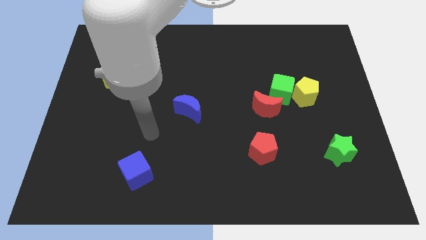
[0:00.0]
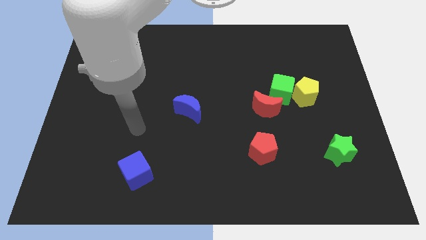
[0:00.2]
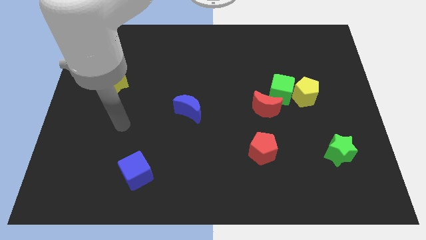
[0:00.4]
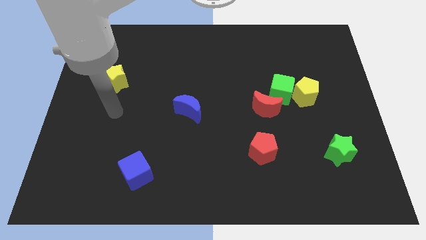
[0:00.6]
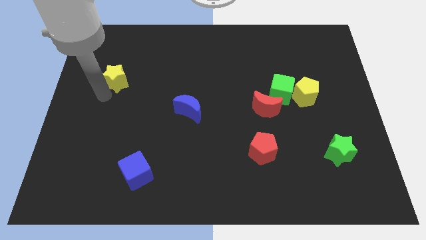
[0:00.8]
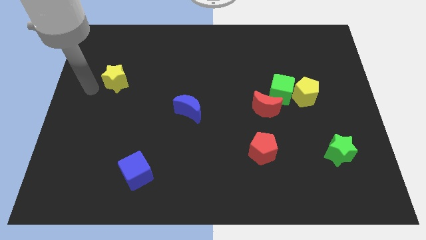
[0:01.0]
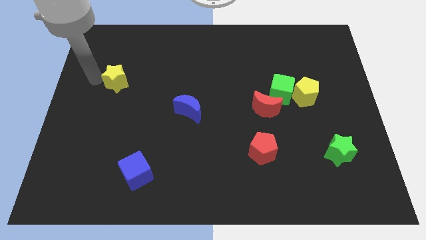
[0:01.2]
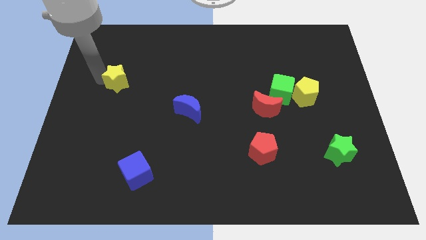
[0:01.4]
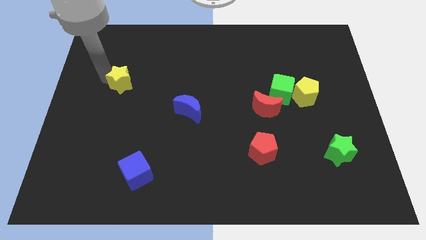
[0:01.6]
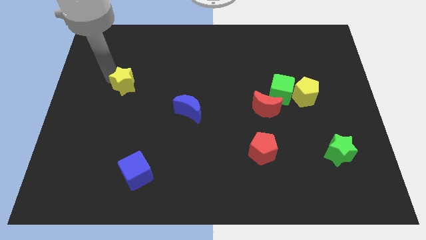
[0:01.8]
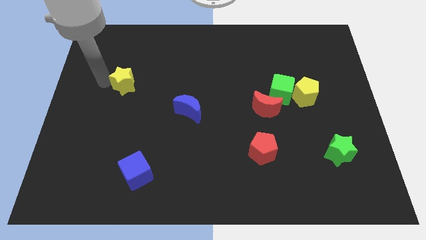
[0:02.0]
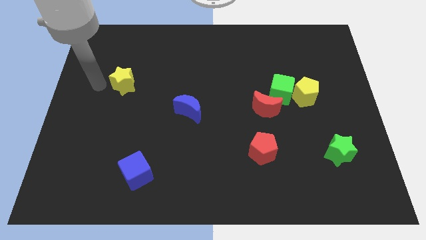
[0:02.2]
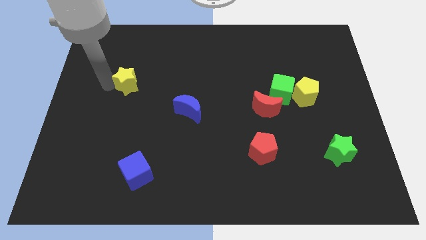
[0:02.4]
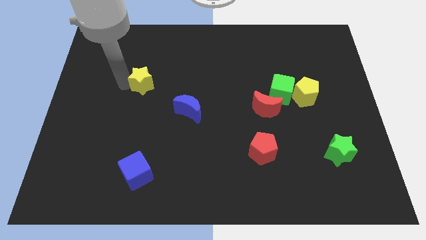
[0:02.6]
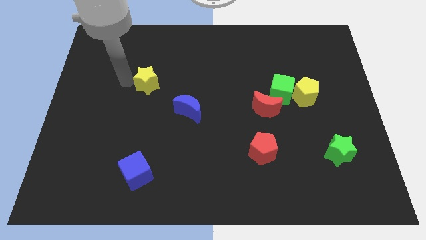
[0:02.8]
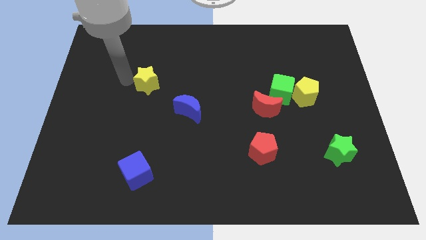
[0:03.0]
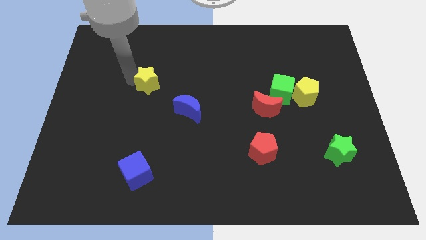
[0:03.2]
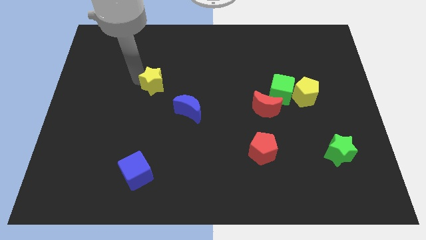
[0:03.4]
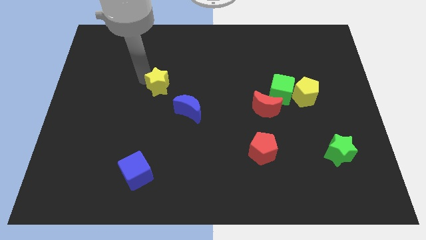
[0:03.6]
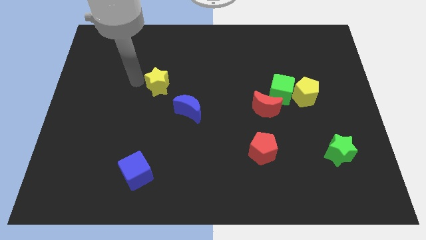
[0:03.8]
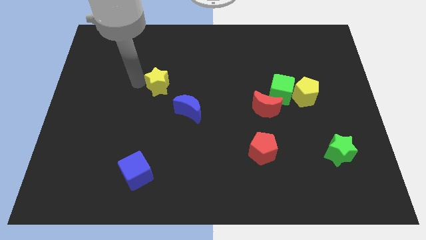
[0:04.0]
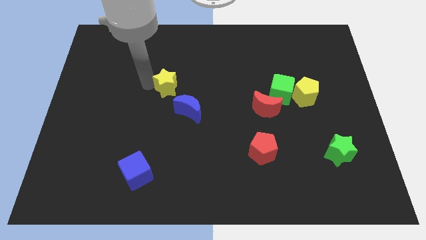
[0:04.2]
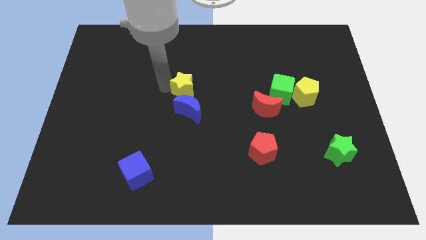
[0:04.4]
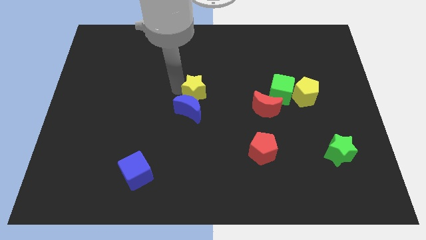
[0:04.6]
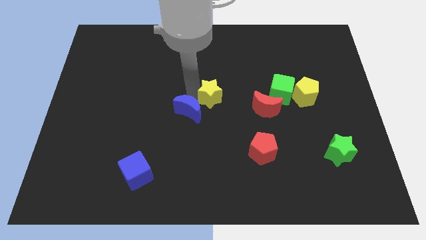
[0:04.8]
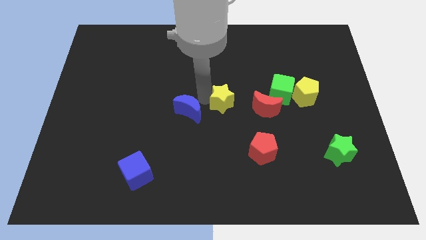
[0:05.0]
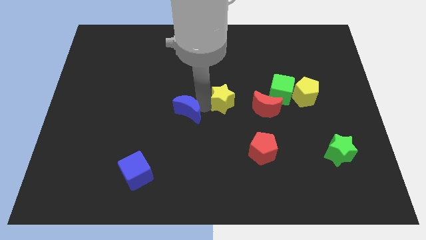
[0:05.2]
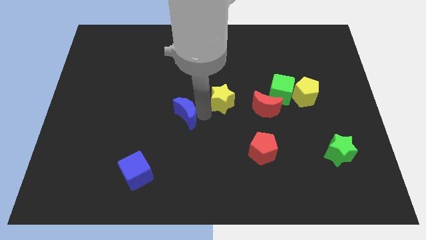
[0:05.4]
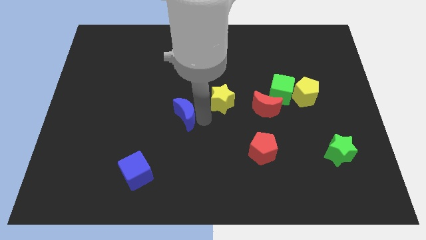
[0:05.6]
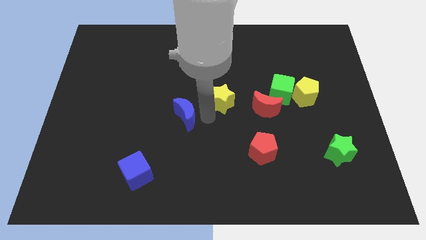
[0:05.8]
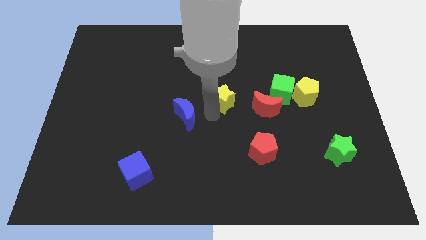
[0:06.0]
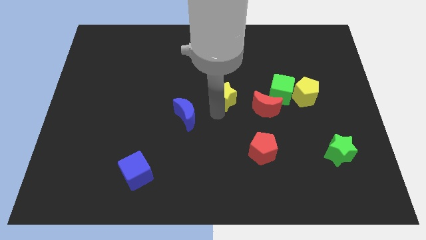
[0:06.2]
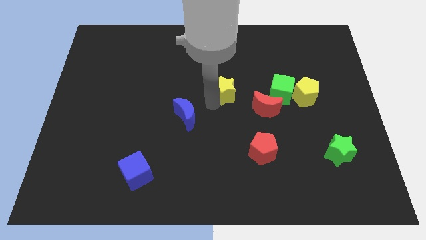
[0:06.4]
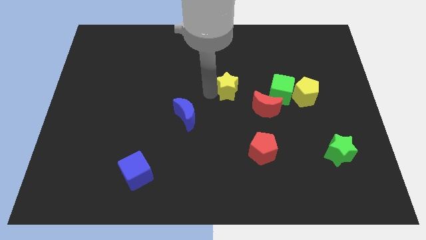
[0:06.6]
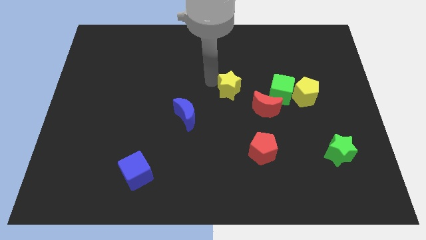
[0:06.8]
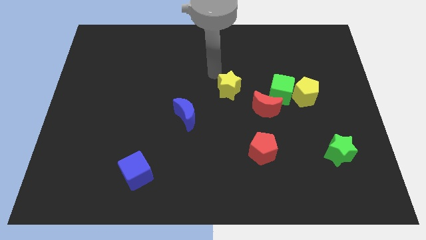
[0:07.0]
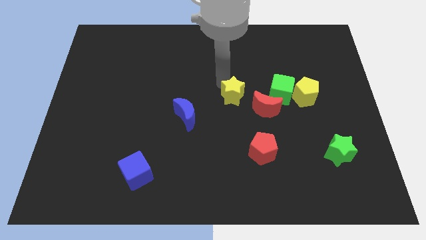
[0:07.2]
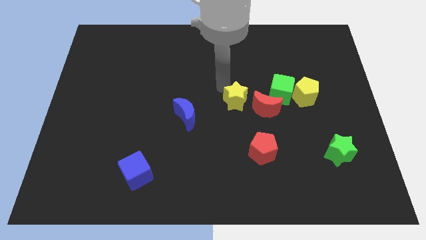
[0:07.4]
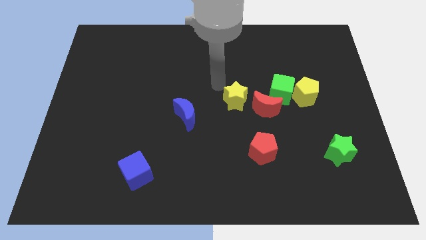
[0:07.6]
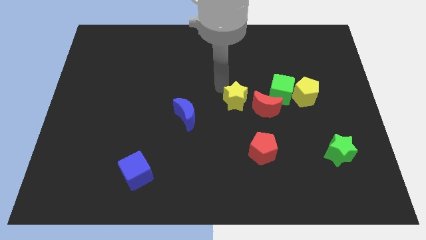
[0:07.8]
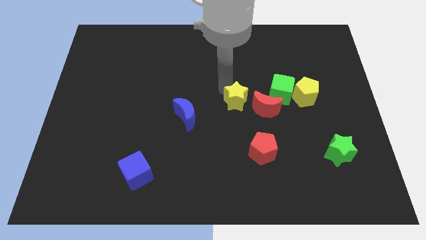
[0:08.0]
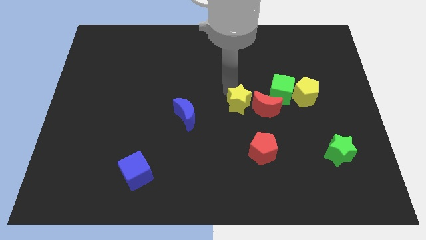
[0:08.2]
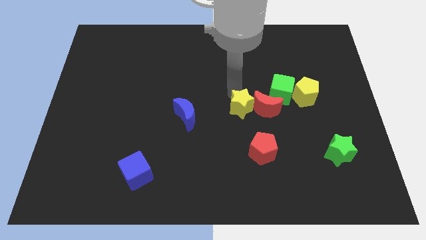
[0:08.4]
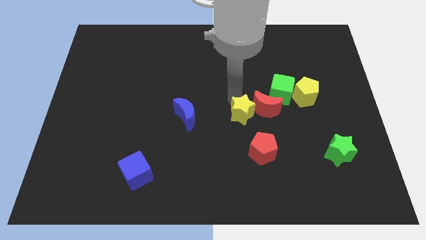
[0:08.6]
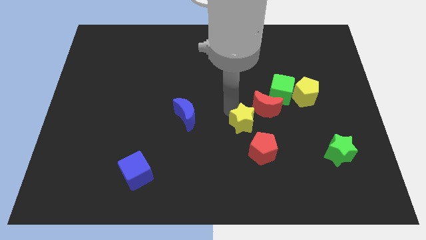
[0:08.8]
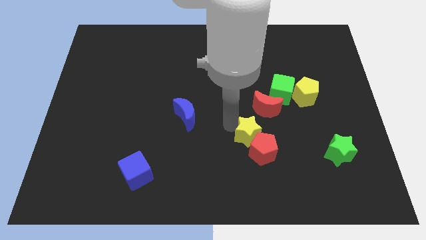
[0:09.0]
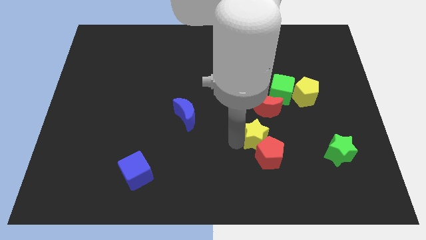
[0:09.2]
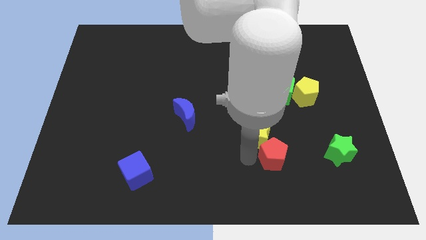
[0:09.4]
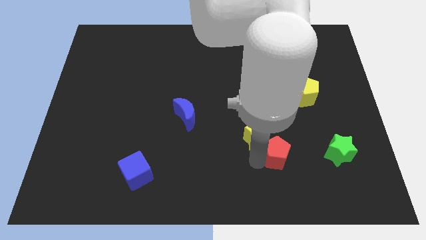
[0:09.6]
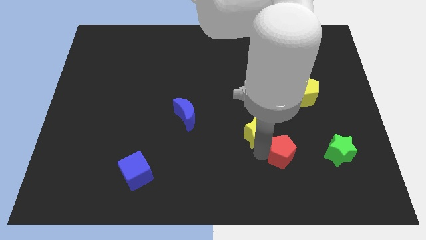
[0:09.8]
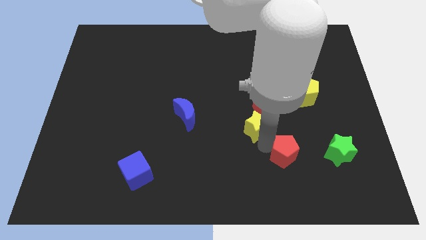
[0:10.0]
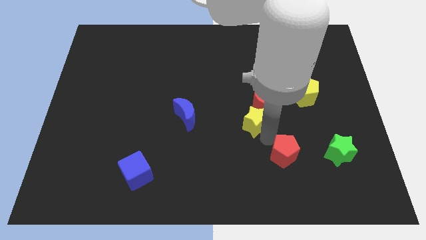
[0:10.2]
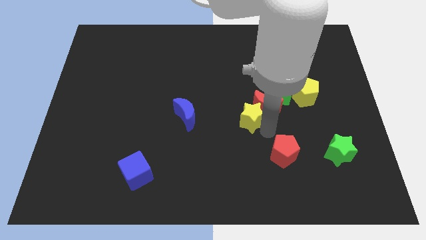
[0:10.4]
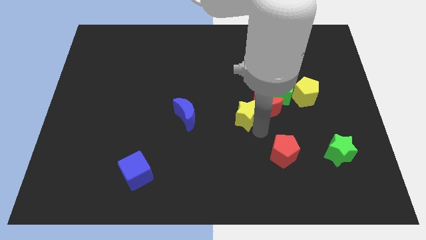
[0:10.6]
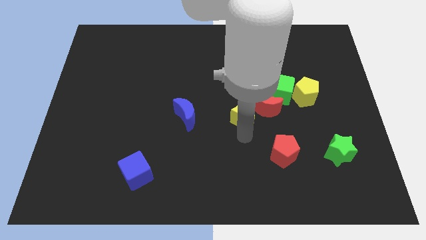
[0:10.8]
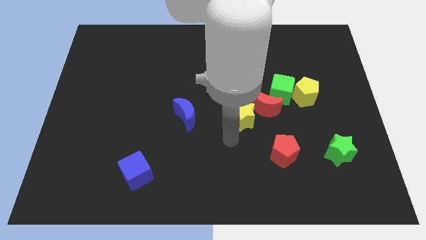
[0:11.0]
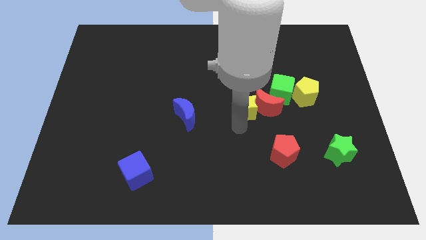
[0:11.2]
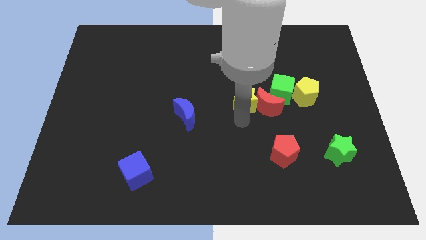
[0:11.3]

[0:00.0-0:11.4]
move the yellow star to the left side of the yellow pentagon

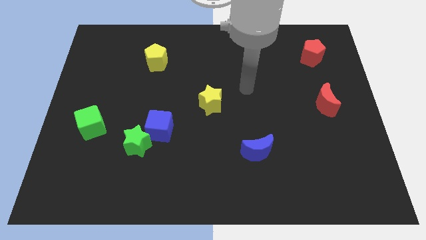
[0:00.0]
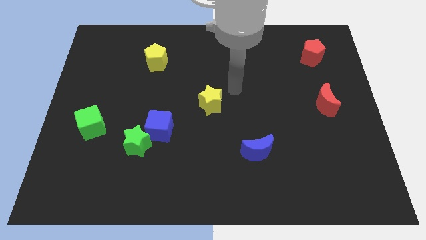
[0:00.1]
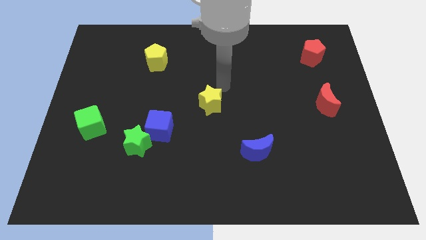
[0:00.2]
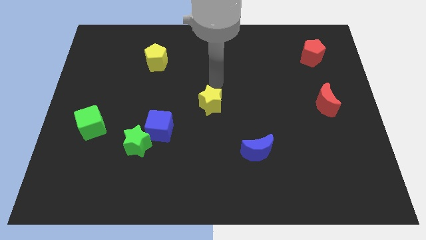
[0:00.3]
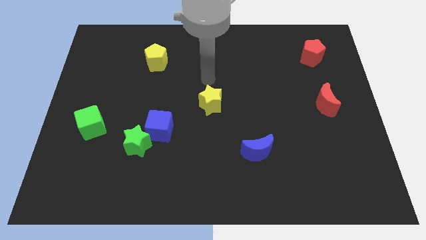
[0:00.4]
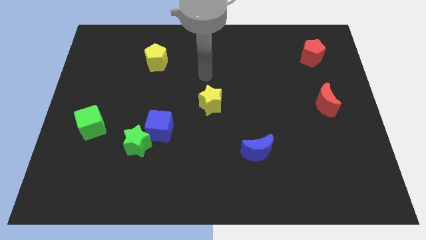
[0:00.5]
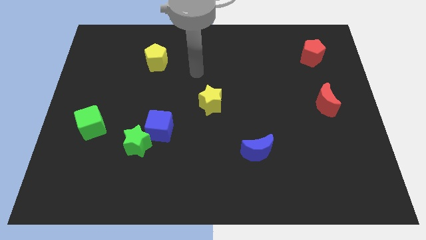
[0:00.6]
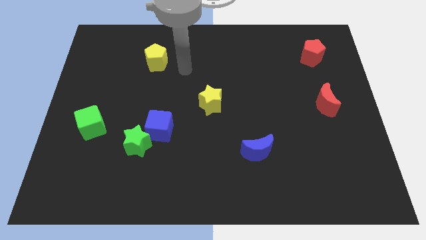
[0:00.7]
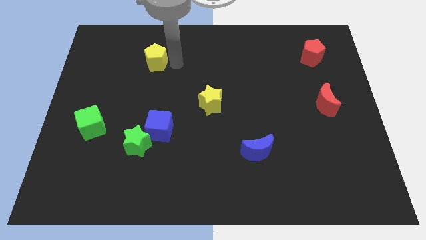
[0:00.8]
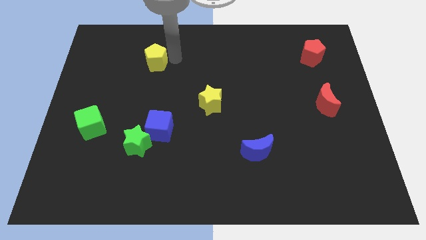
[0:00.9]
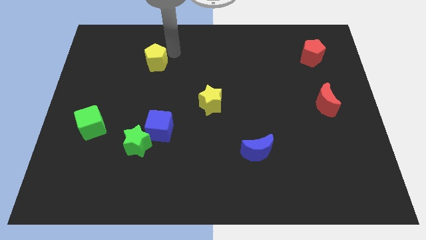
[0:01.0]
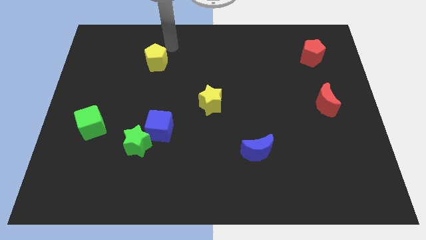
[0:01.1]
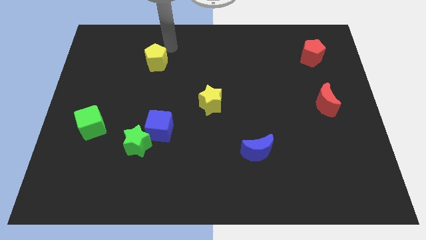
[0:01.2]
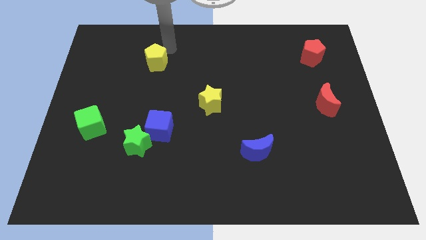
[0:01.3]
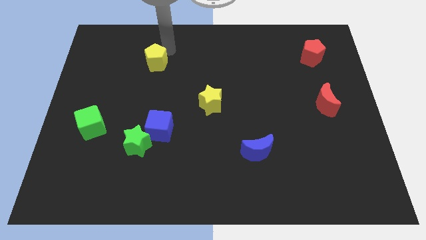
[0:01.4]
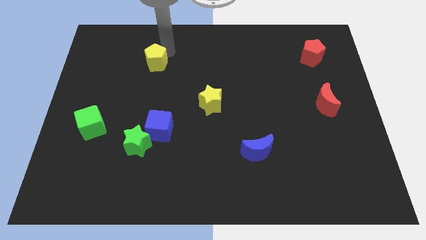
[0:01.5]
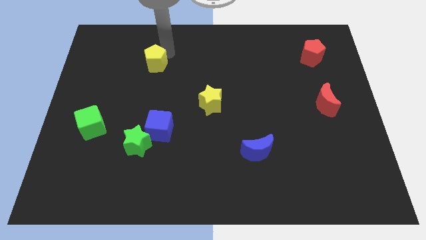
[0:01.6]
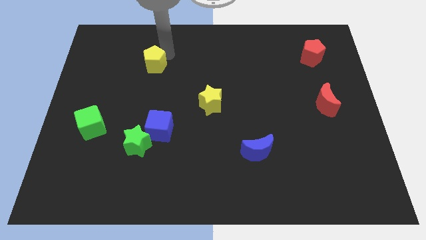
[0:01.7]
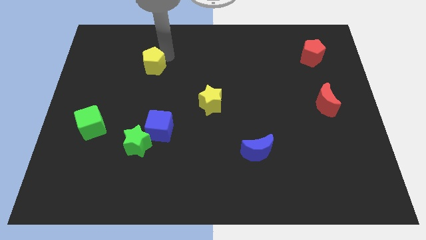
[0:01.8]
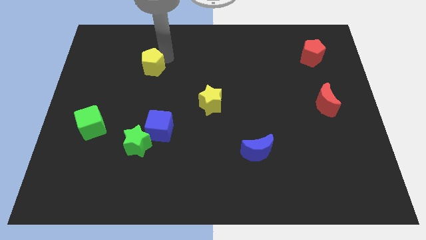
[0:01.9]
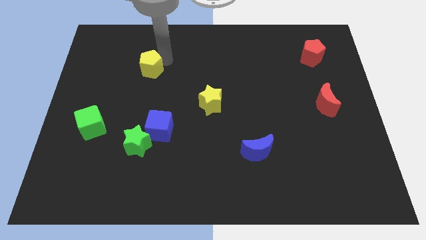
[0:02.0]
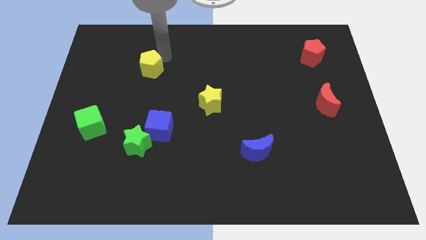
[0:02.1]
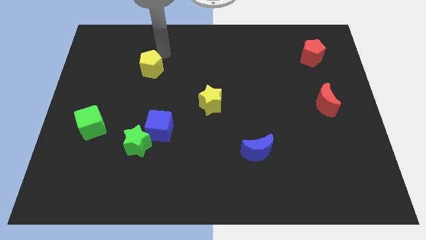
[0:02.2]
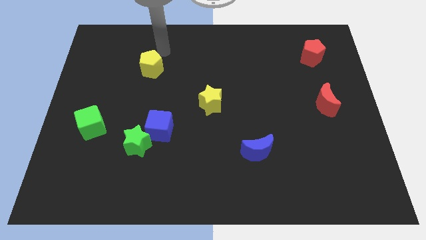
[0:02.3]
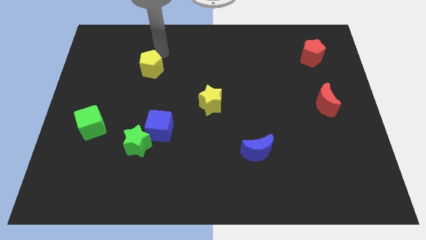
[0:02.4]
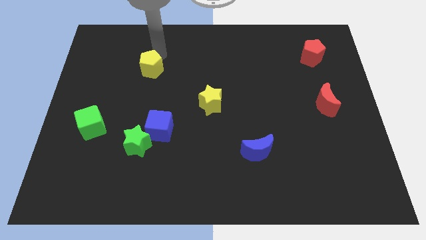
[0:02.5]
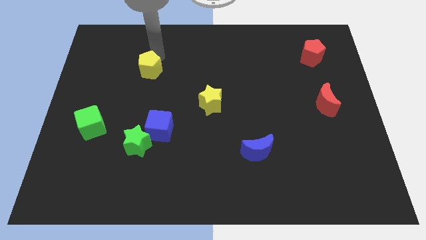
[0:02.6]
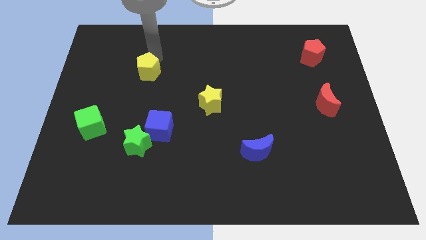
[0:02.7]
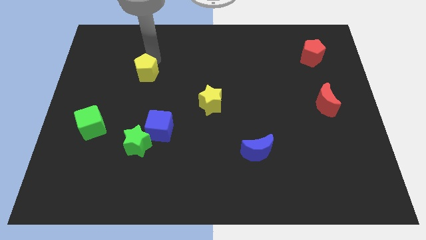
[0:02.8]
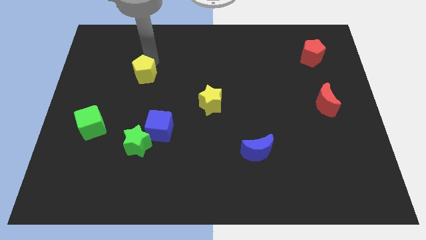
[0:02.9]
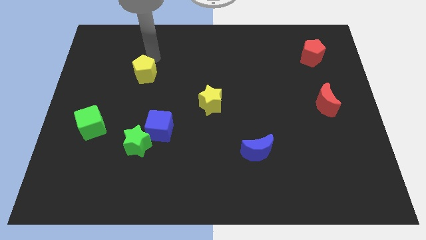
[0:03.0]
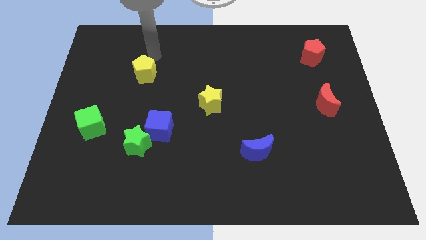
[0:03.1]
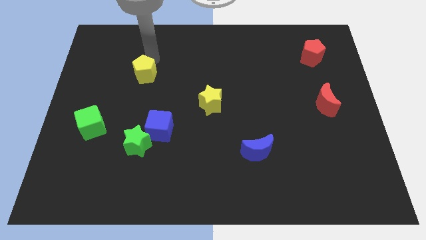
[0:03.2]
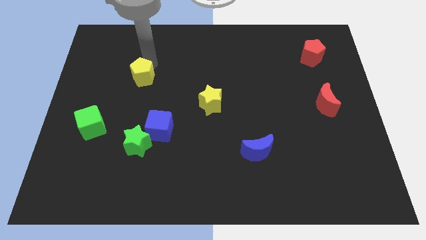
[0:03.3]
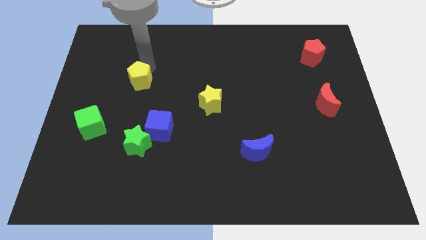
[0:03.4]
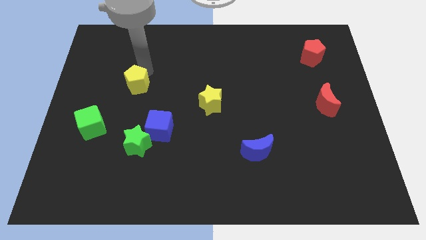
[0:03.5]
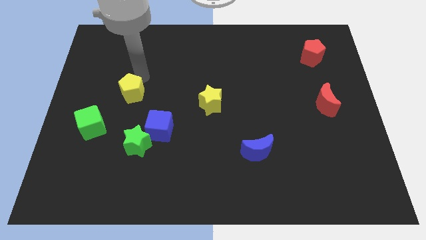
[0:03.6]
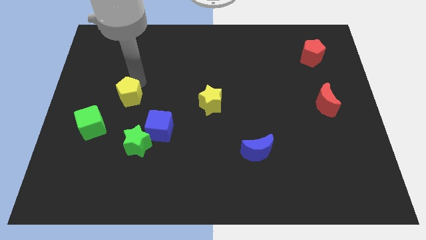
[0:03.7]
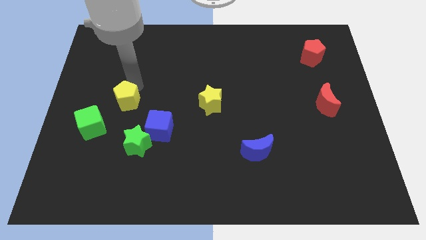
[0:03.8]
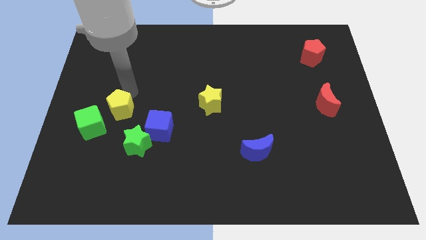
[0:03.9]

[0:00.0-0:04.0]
put the yellow pentagon to the right of the green cube
